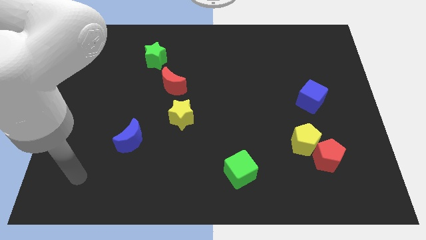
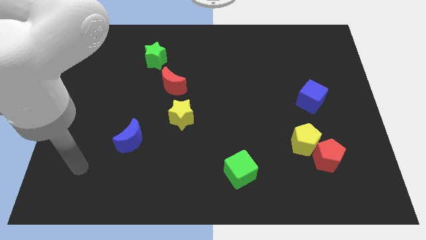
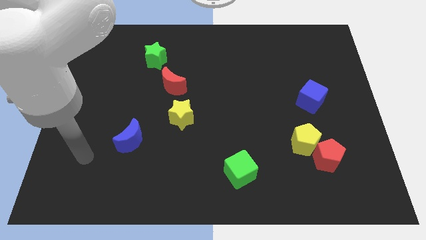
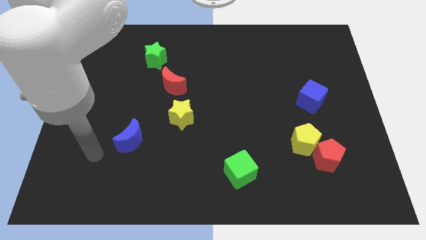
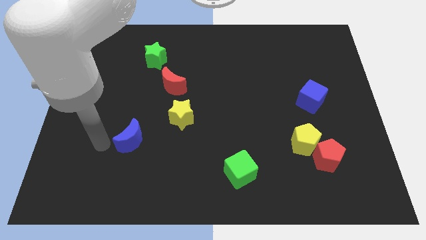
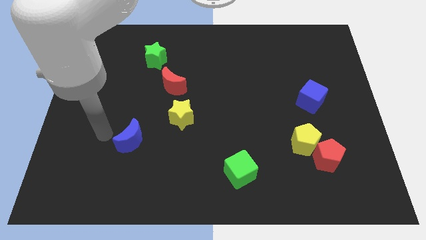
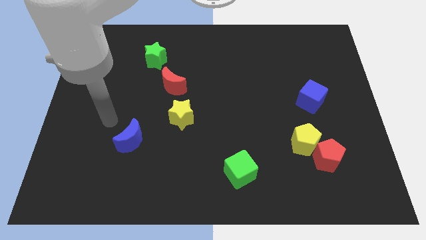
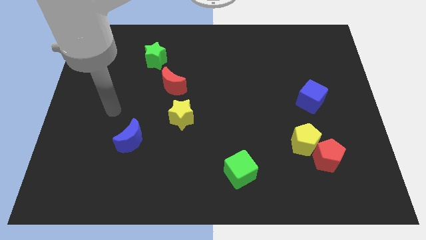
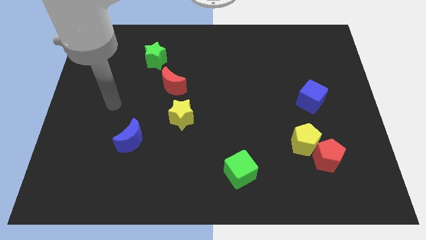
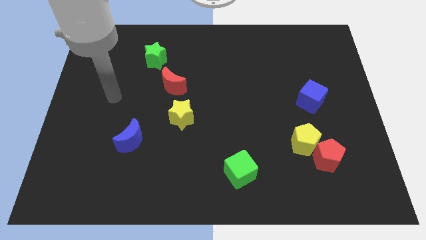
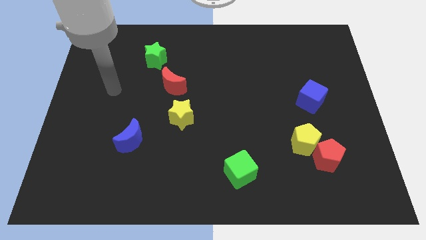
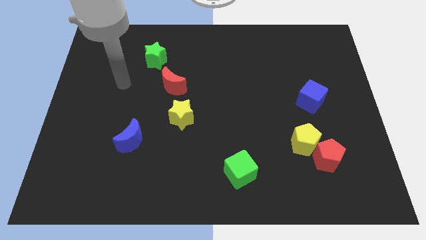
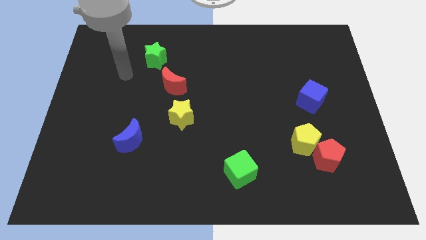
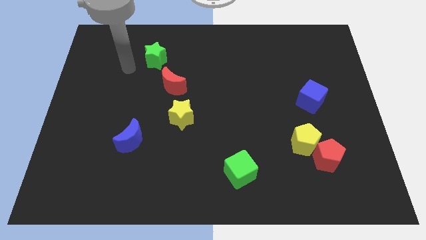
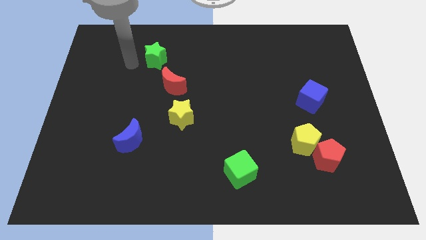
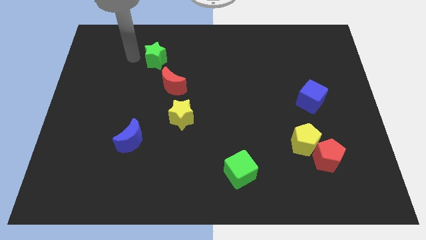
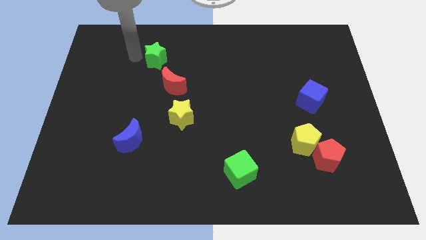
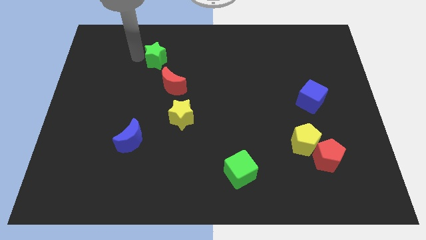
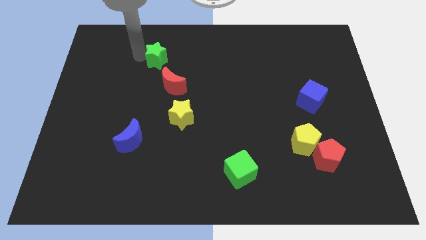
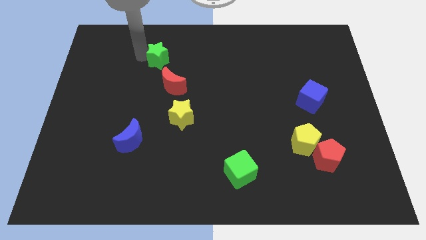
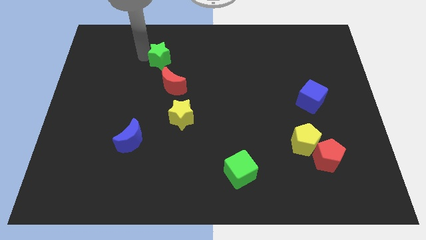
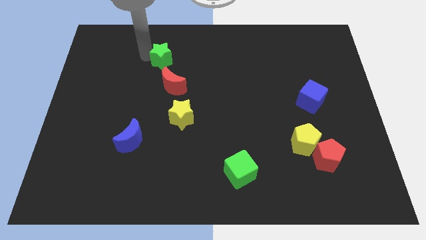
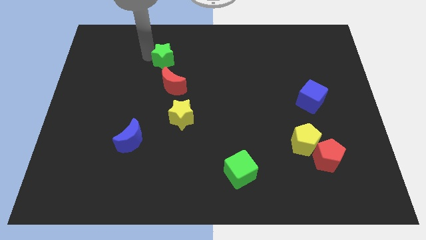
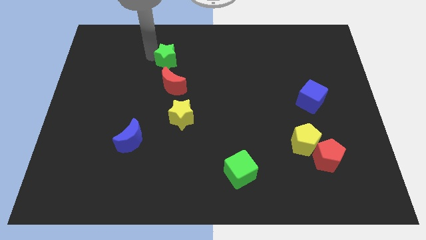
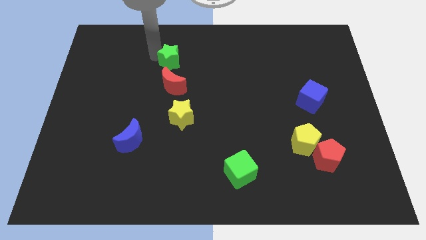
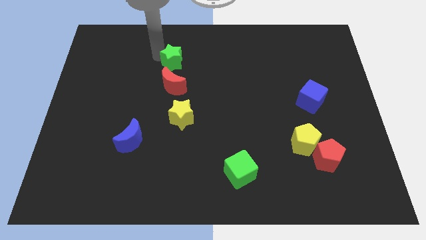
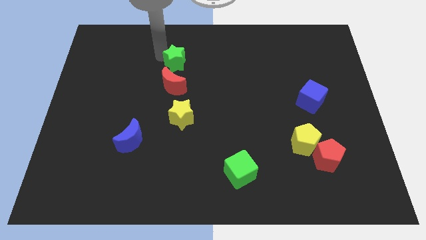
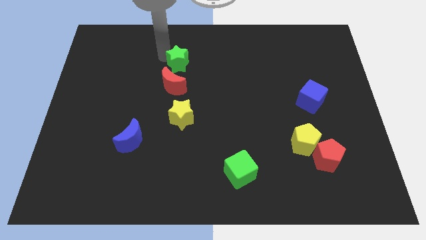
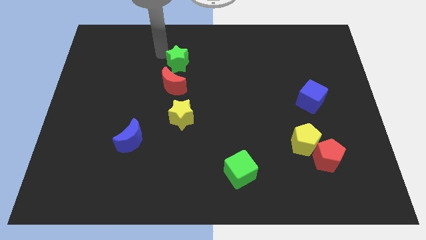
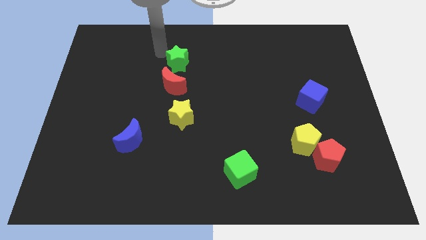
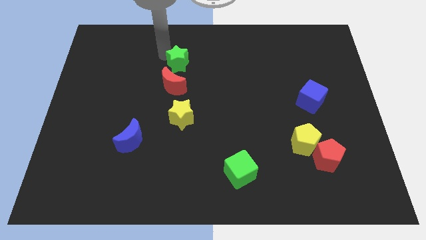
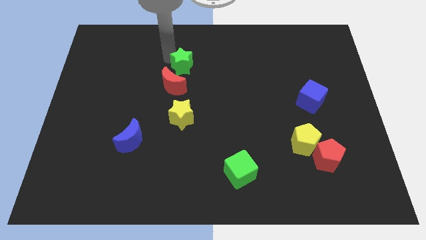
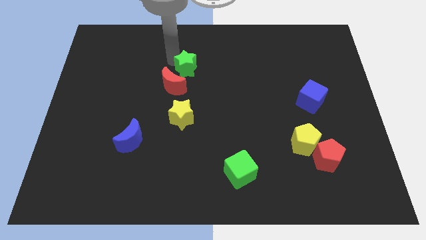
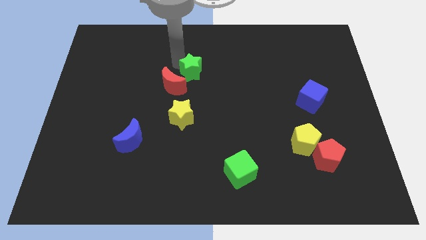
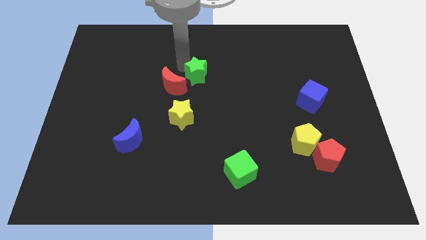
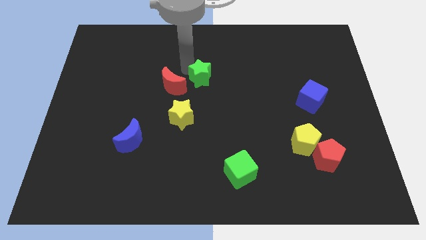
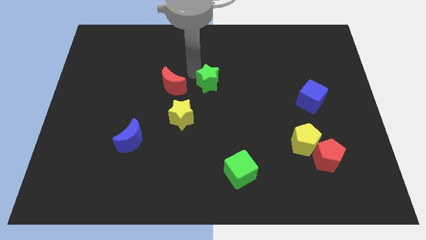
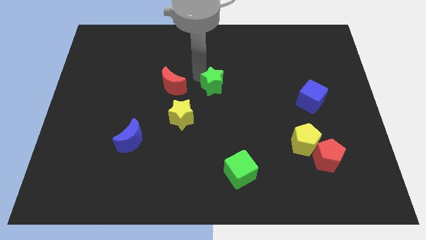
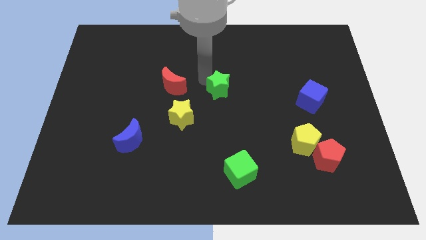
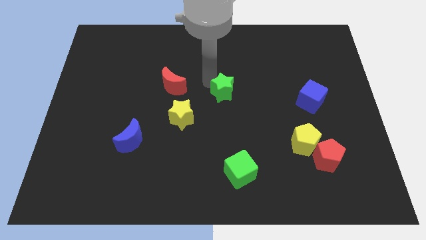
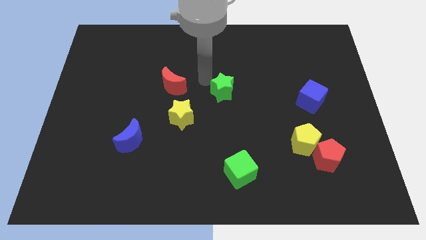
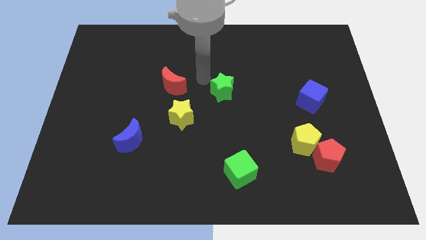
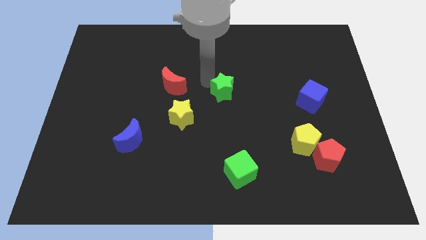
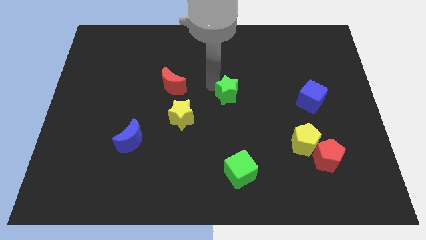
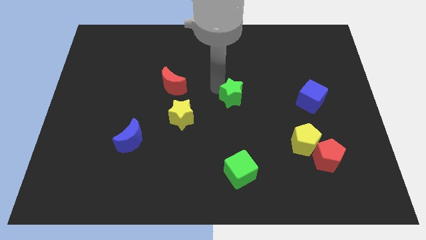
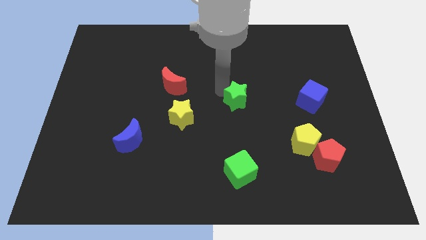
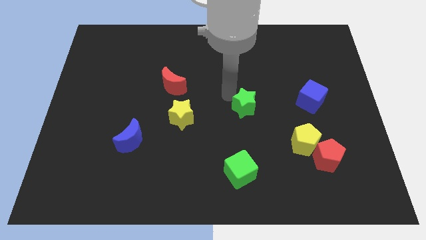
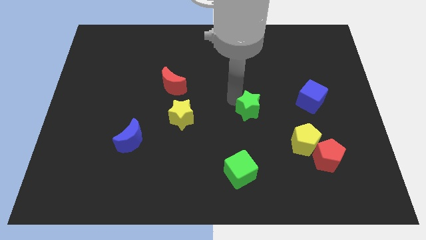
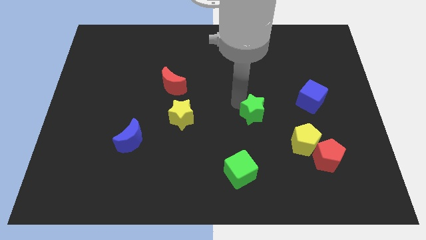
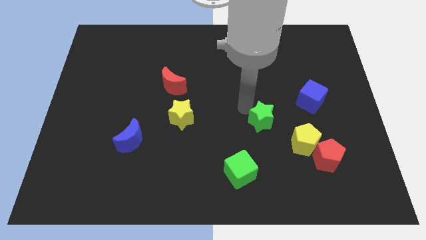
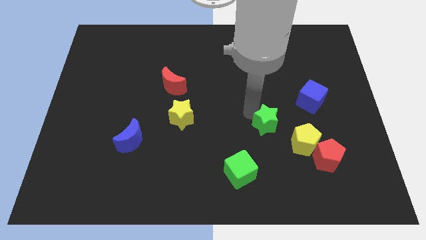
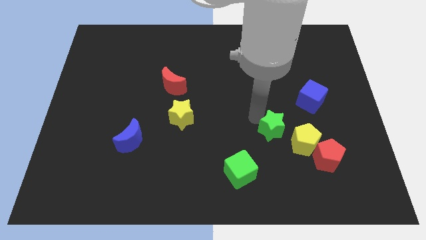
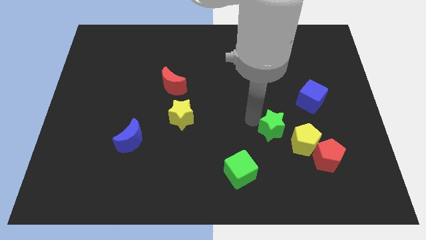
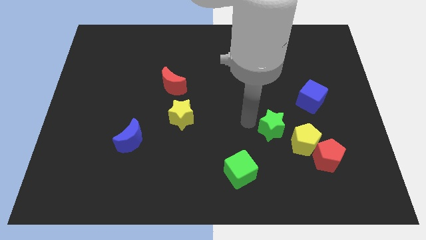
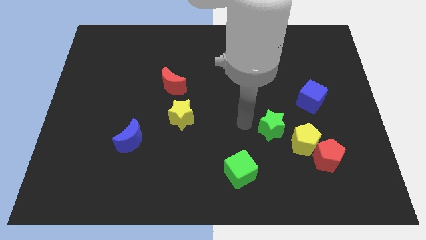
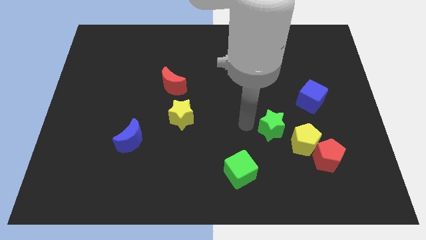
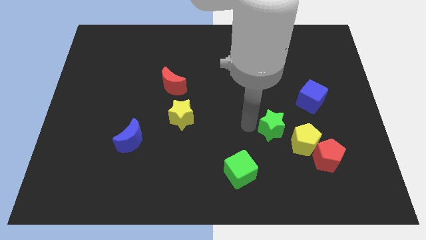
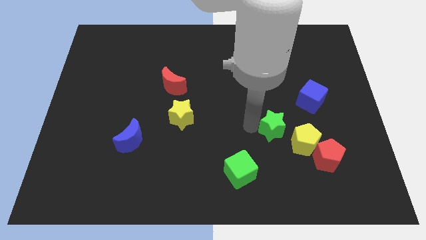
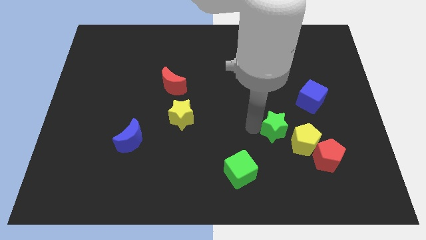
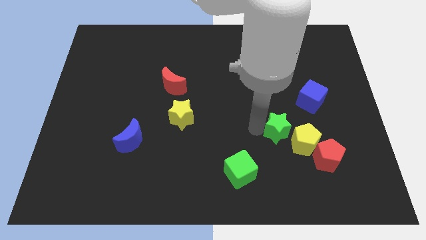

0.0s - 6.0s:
put the green star next to the yellow pentagon

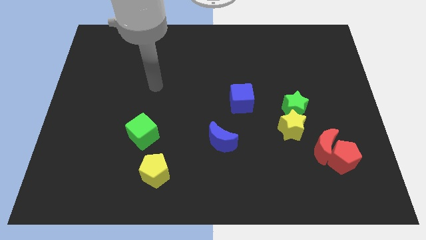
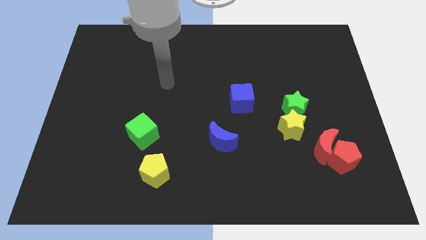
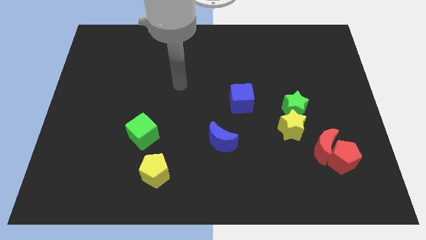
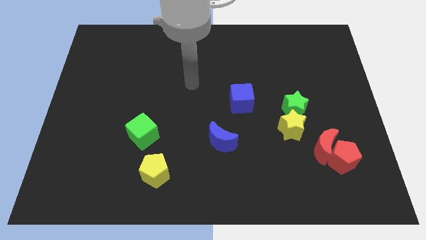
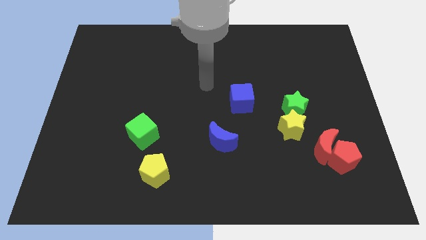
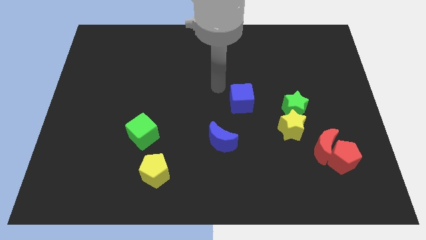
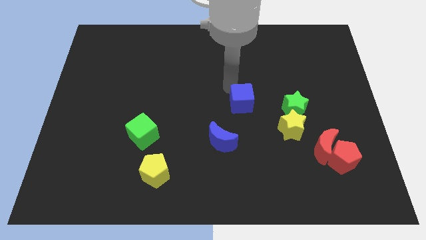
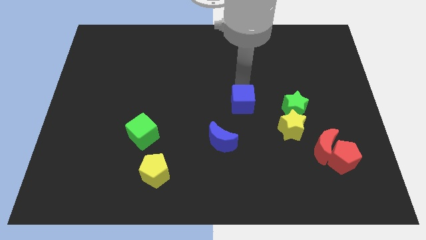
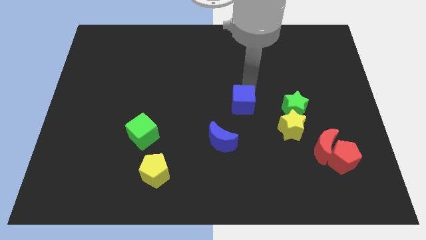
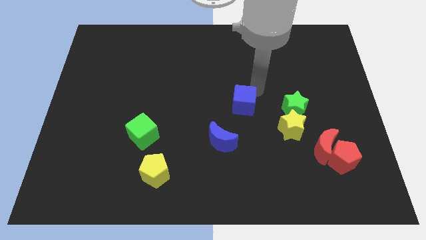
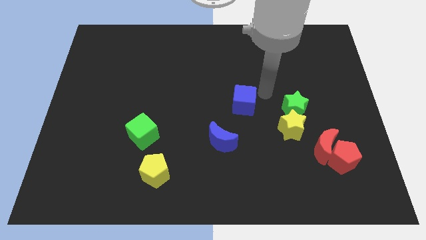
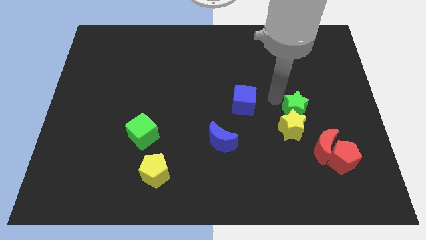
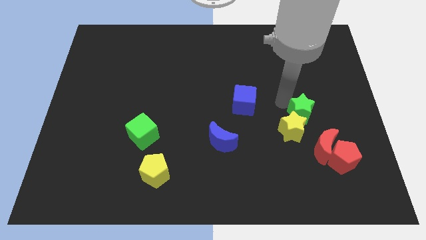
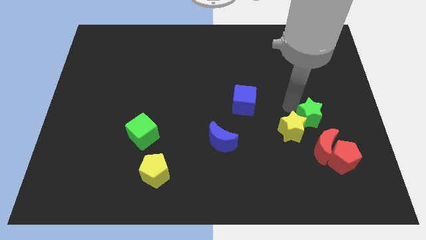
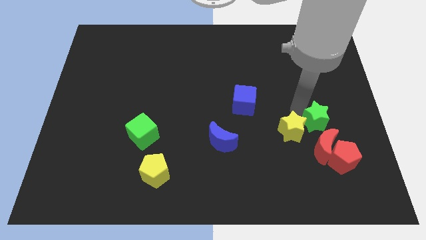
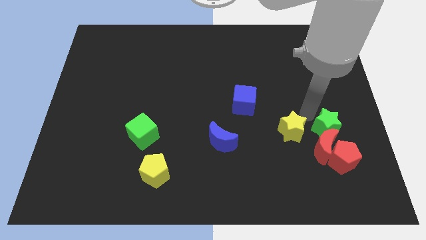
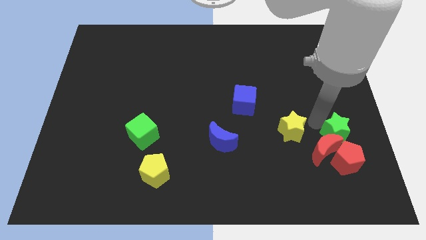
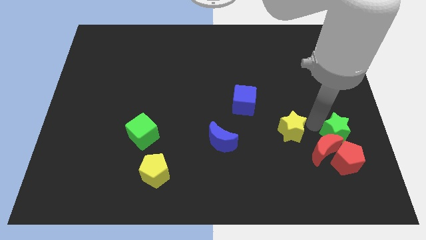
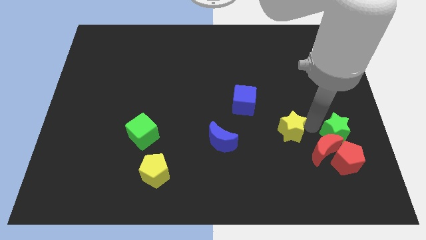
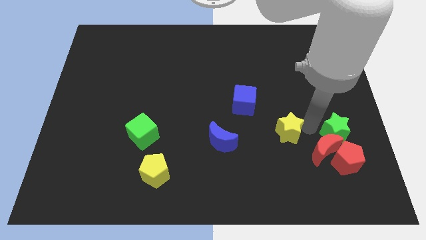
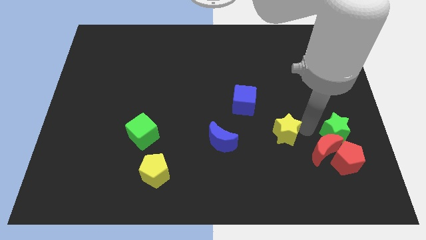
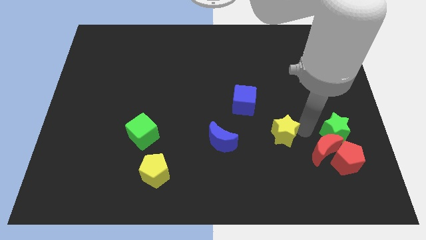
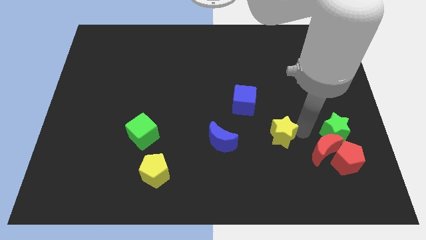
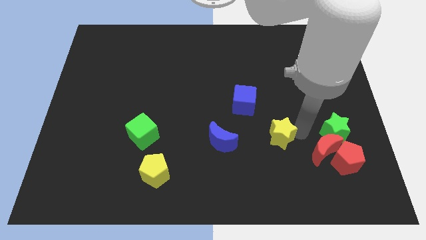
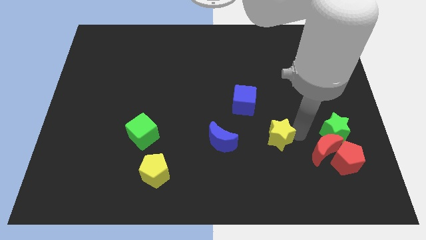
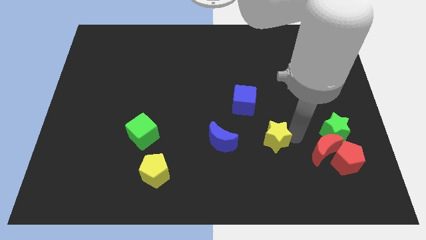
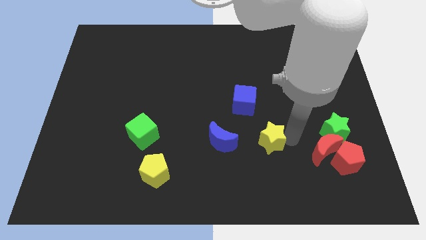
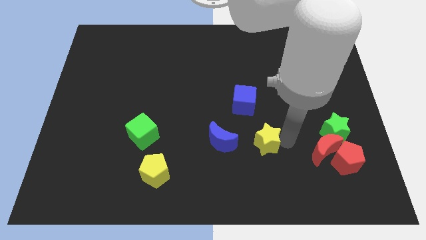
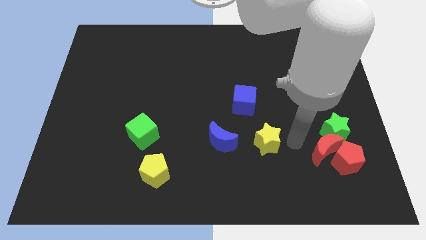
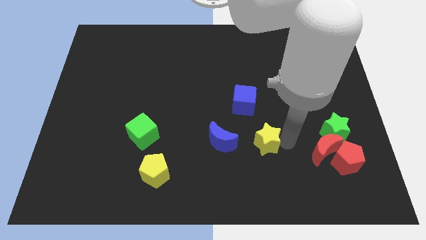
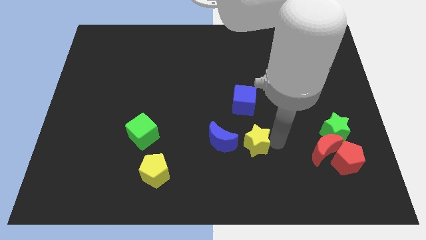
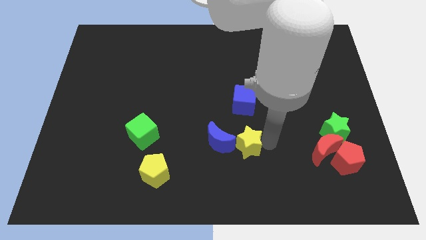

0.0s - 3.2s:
move the yellow star to the blue moon
